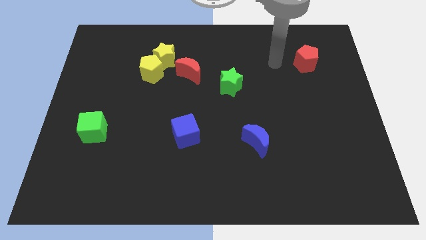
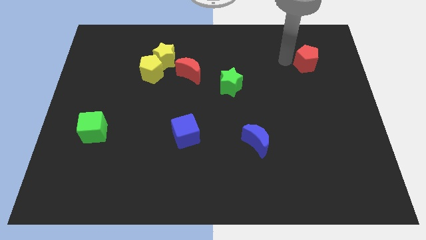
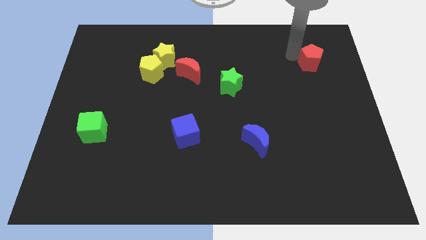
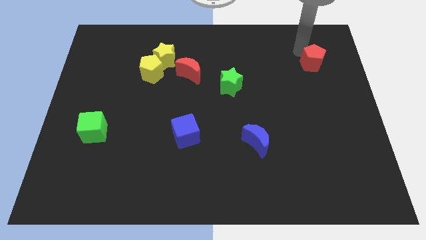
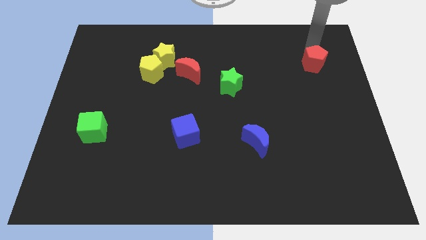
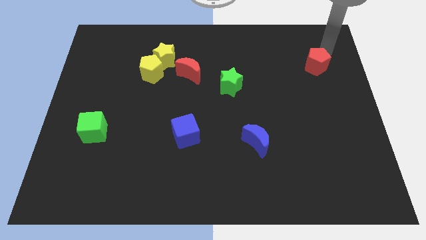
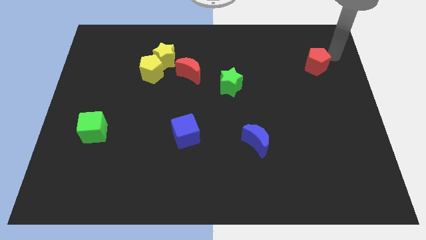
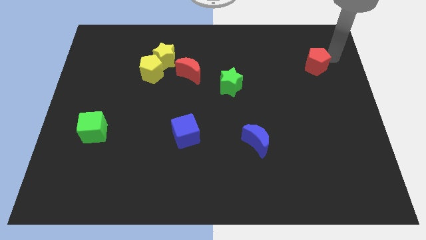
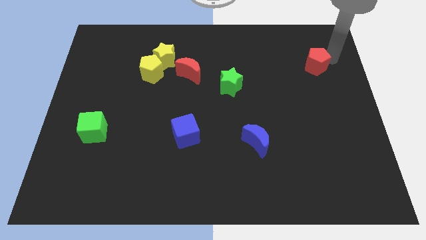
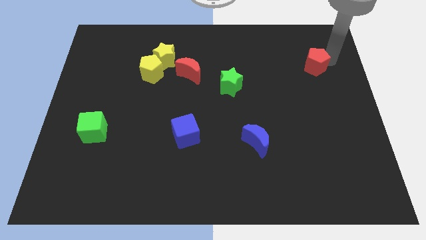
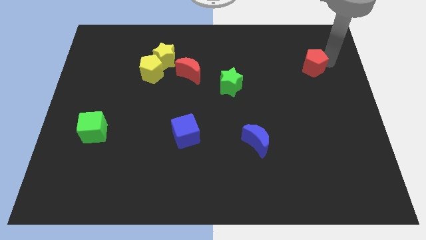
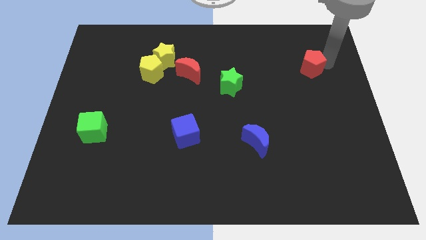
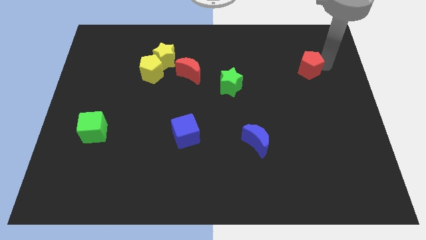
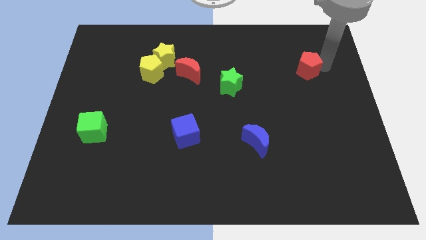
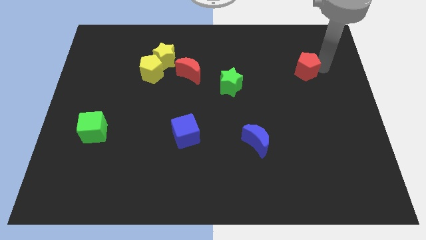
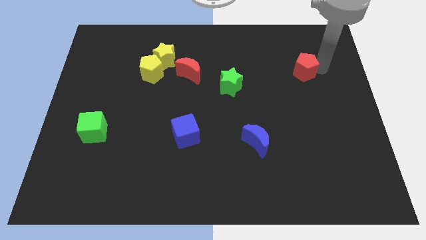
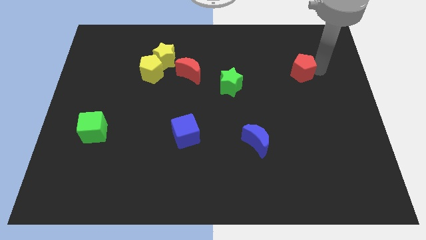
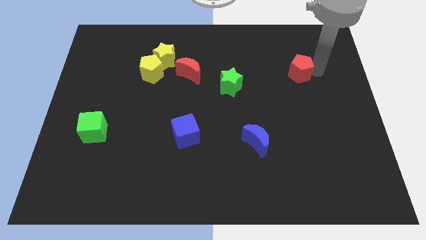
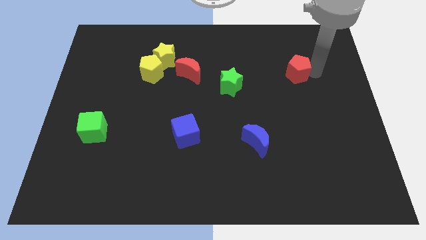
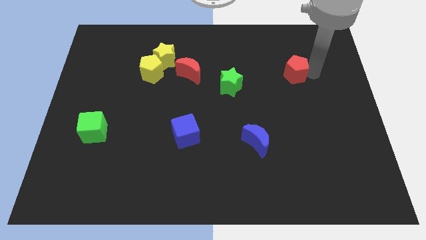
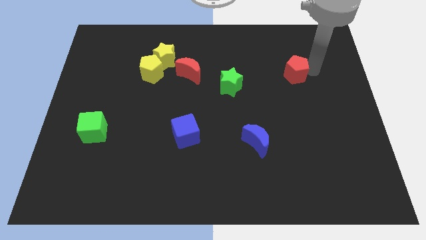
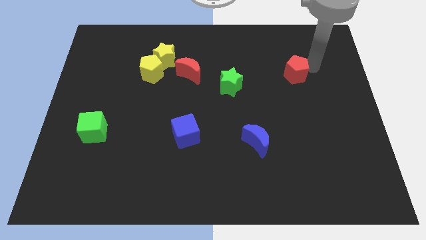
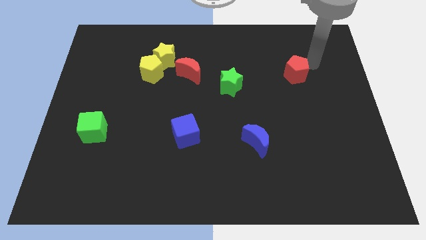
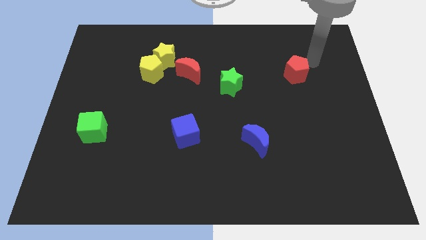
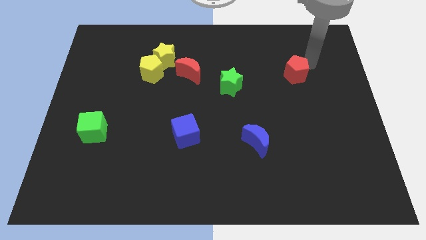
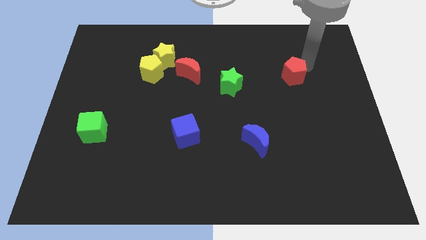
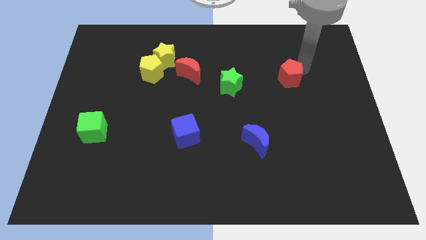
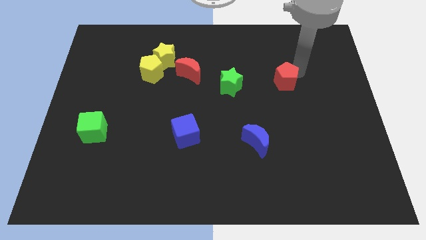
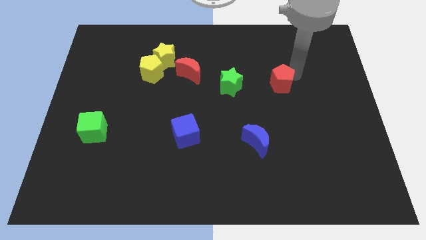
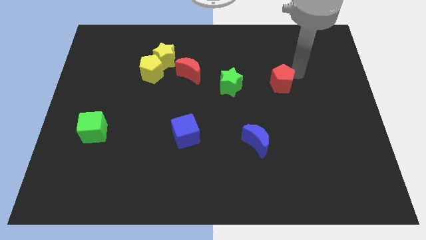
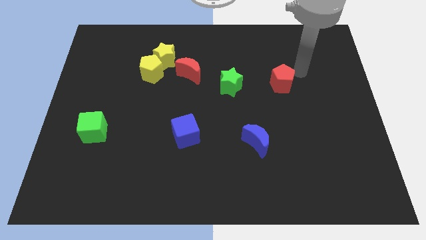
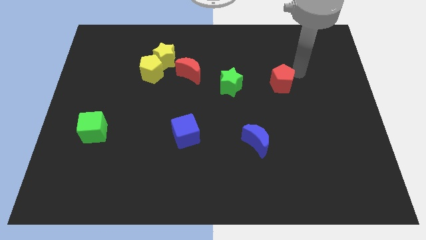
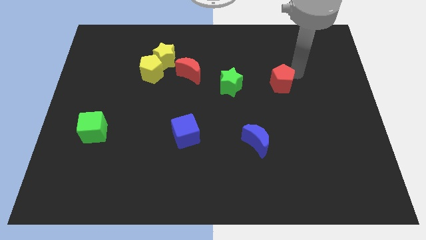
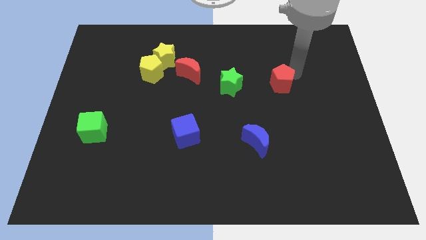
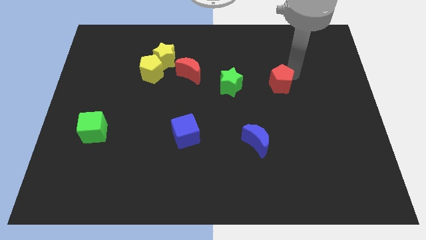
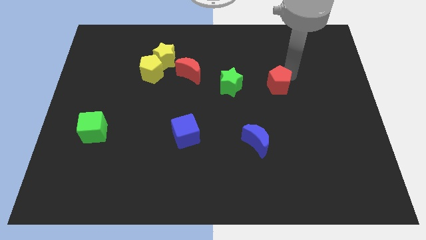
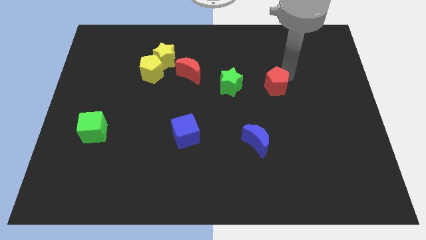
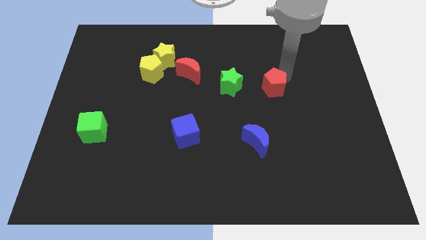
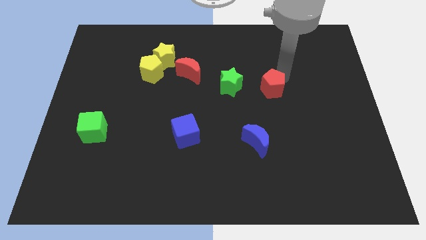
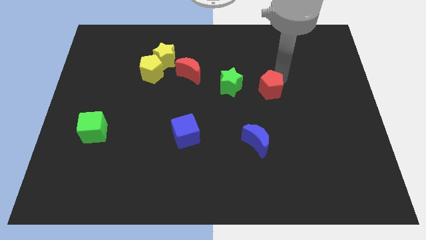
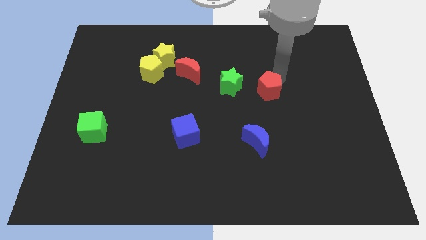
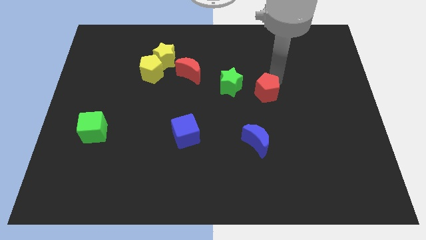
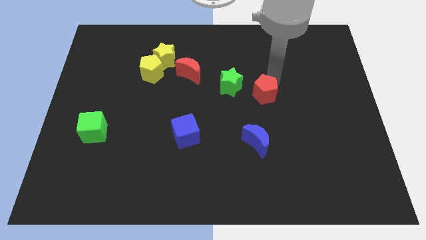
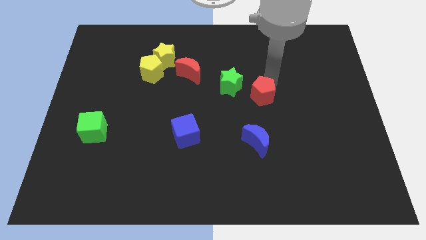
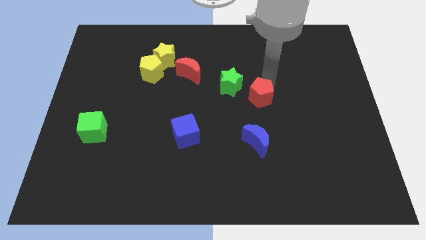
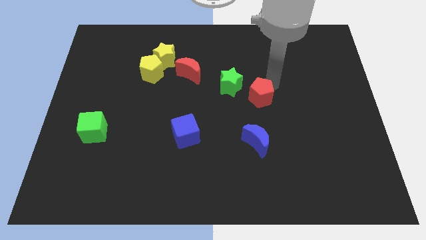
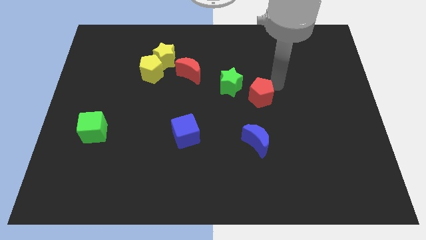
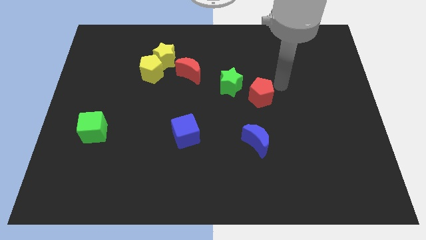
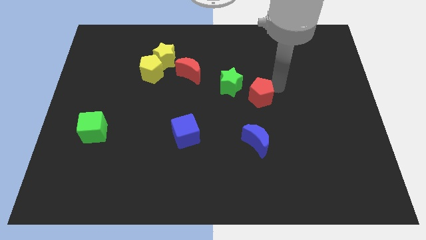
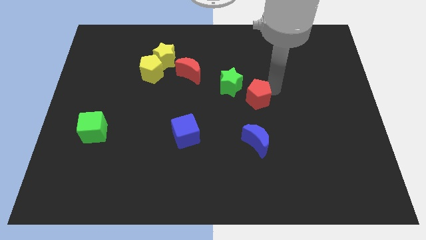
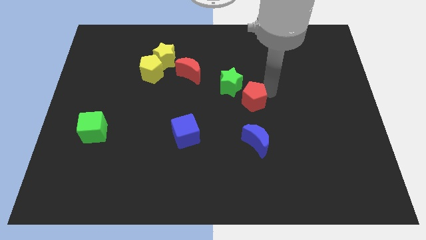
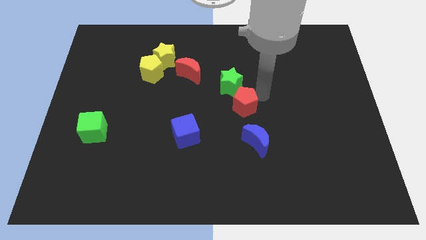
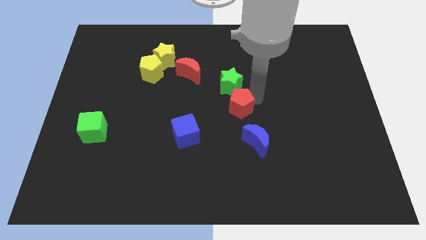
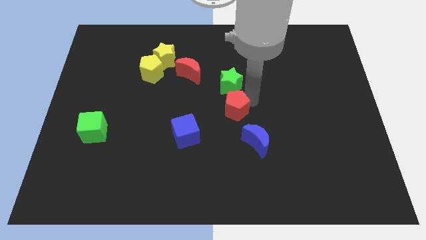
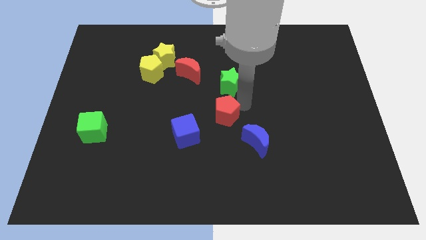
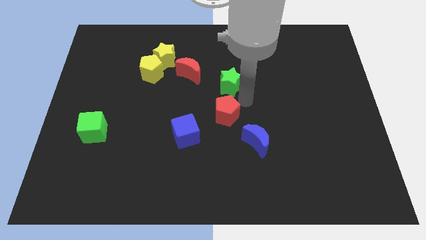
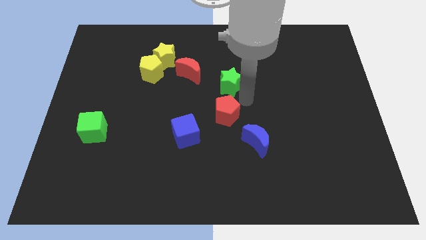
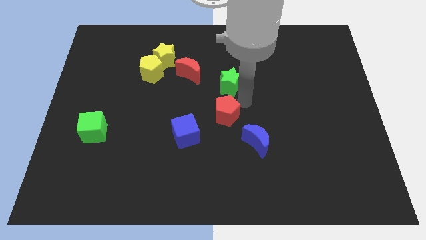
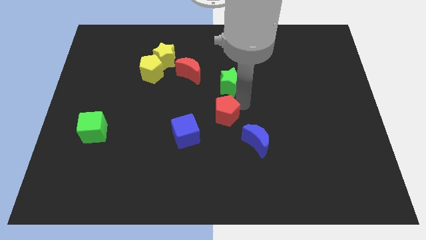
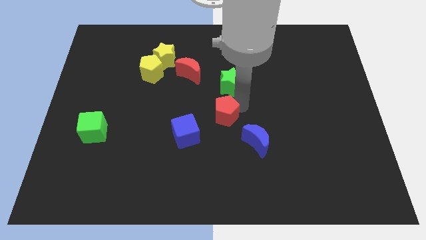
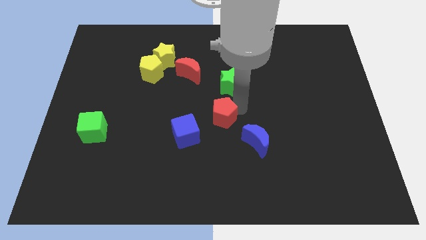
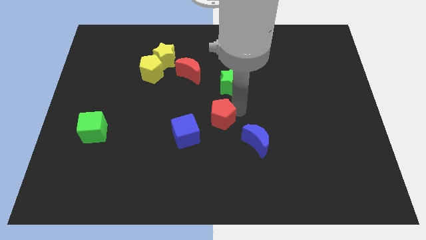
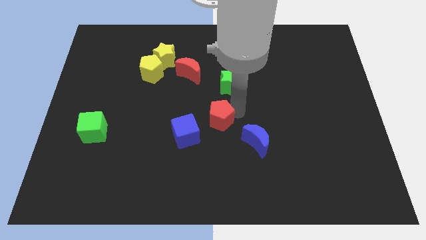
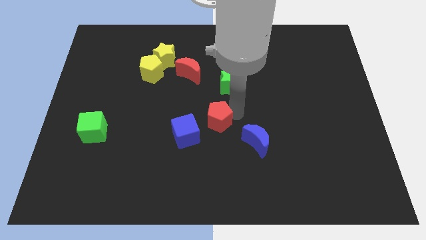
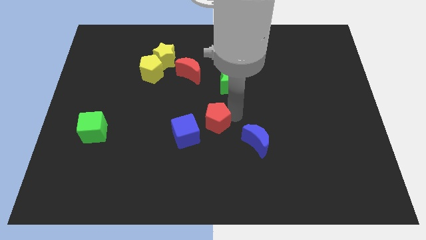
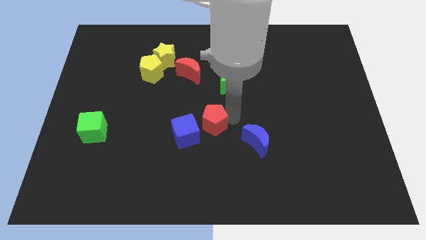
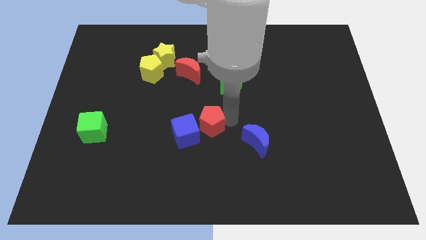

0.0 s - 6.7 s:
put the red pentagon next to the blue cube

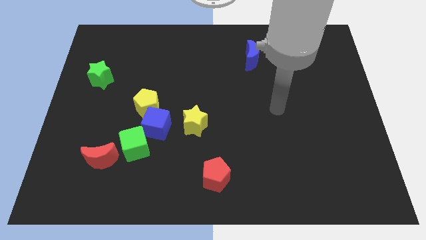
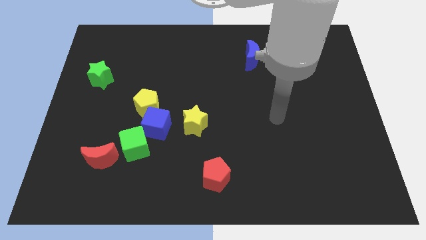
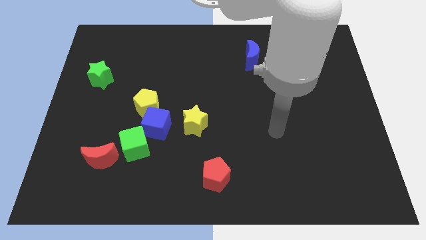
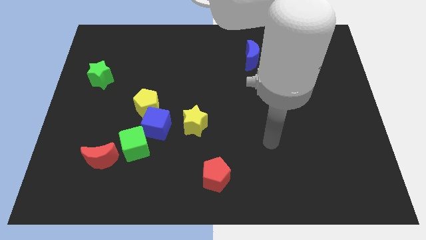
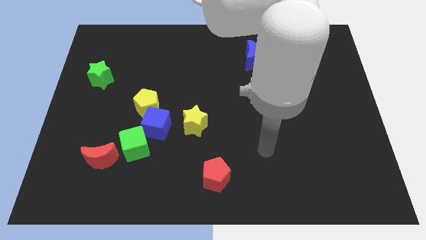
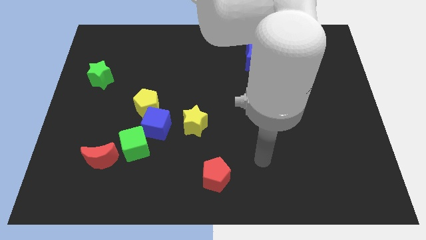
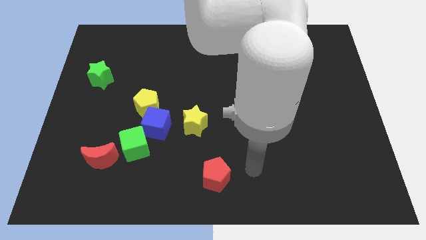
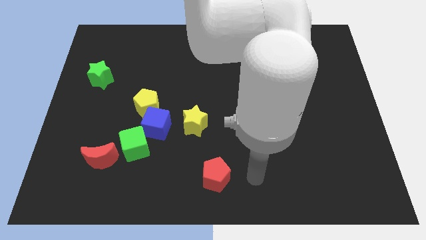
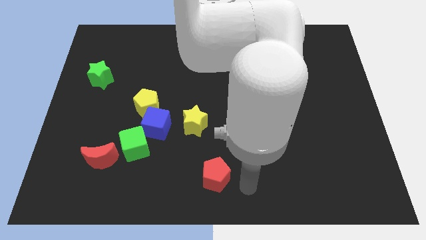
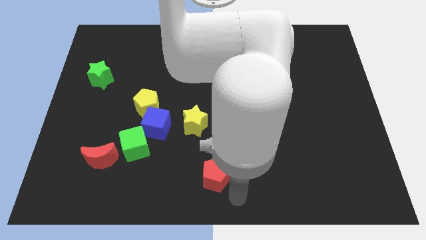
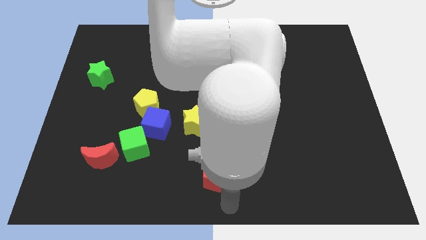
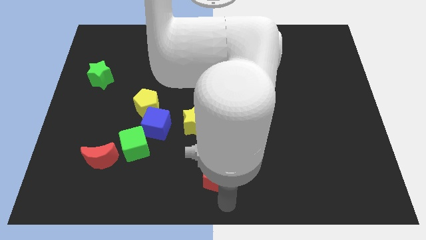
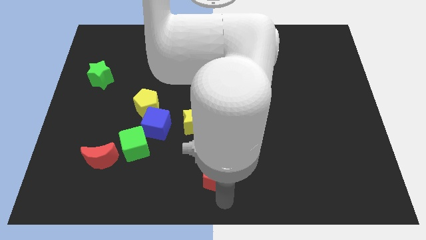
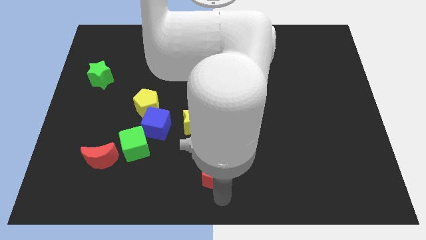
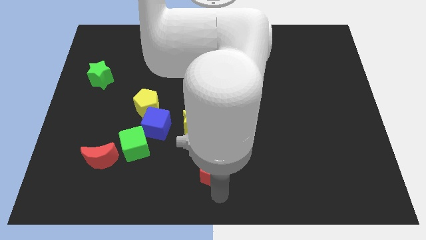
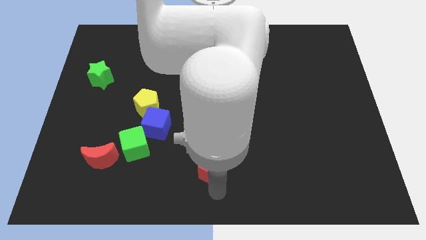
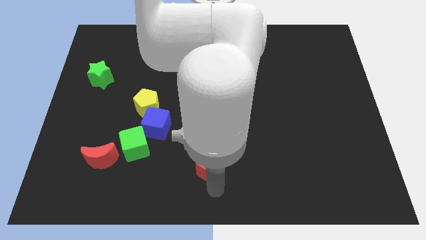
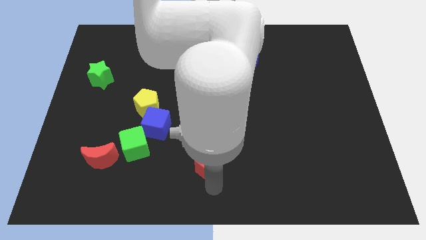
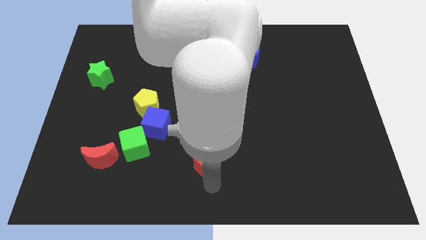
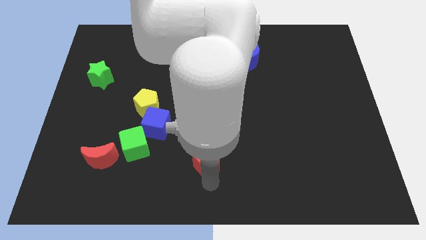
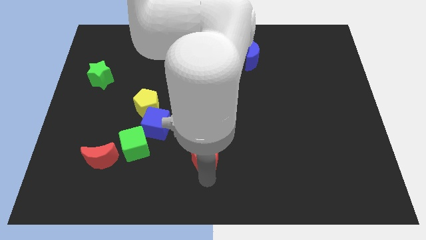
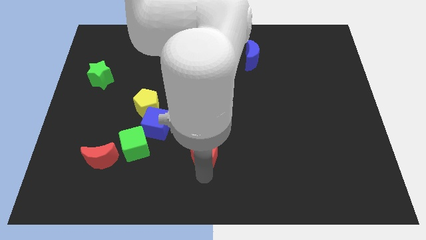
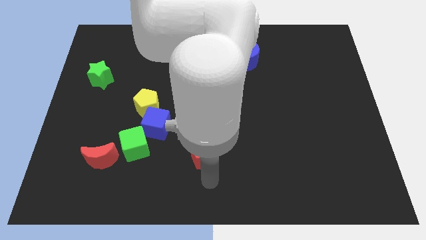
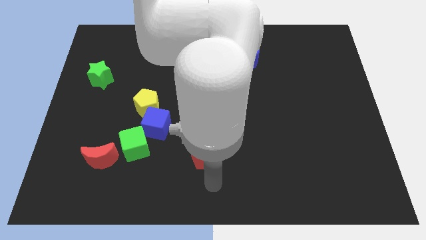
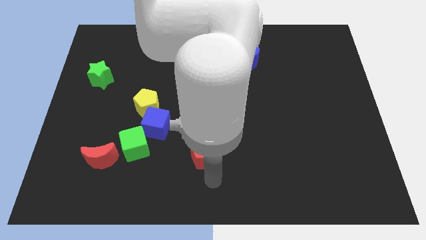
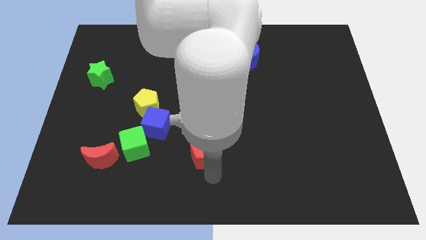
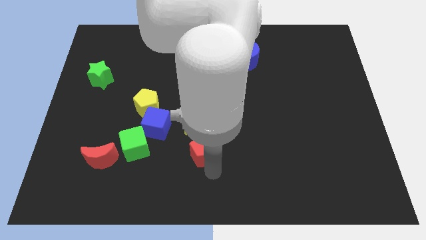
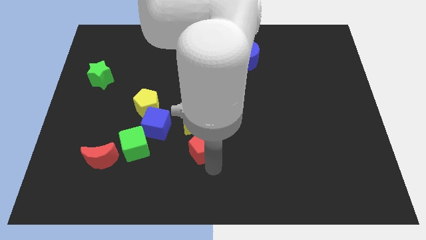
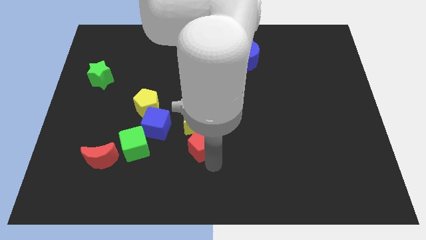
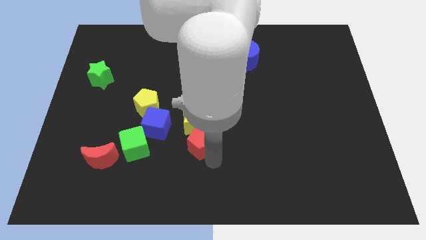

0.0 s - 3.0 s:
move the red pentagon next to the yellow star
